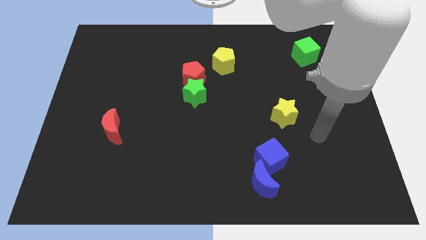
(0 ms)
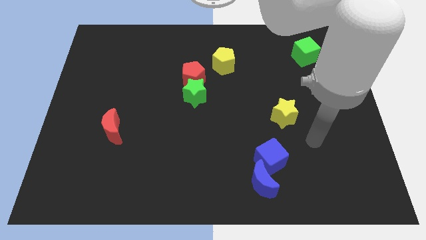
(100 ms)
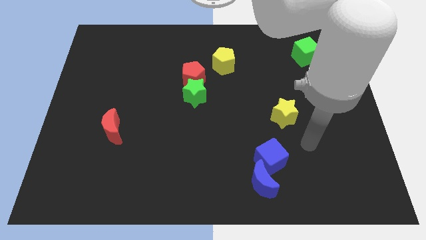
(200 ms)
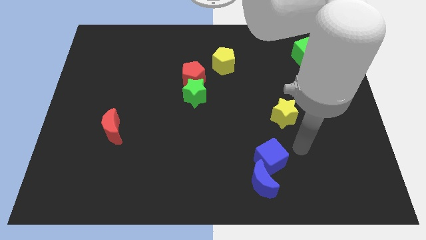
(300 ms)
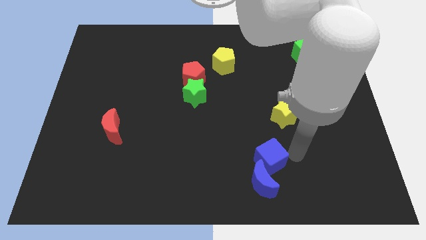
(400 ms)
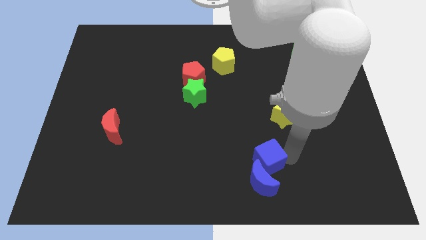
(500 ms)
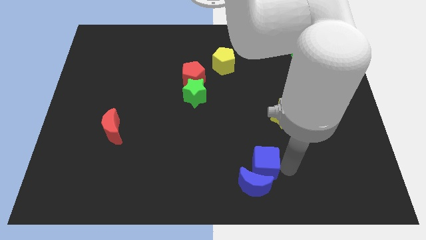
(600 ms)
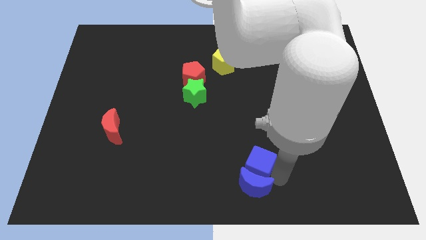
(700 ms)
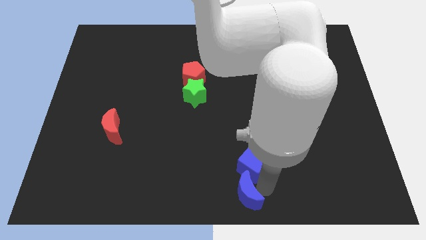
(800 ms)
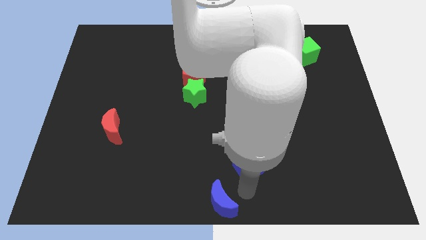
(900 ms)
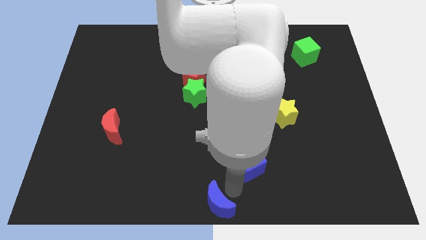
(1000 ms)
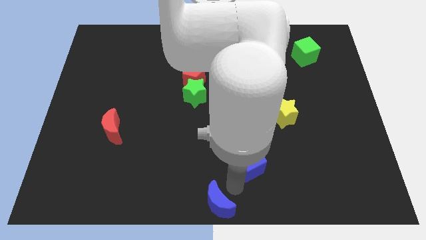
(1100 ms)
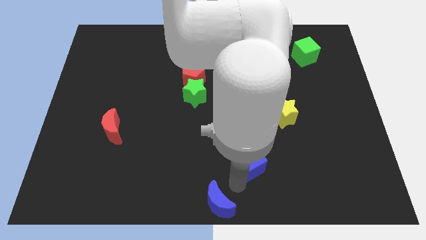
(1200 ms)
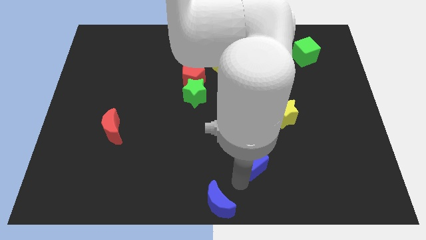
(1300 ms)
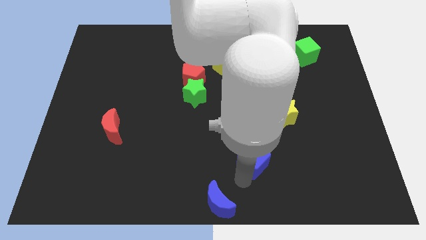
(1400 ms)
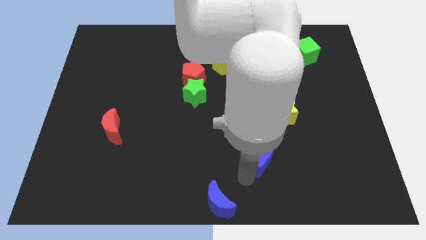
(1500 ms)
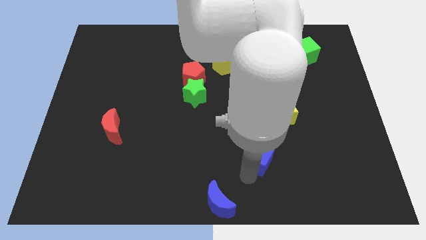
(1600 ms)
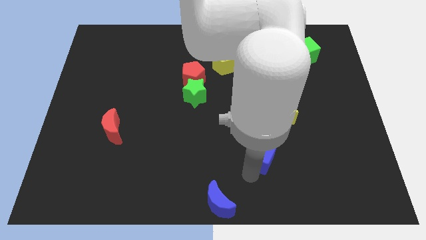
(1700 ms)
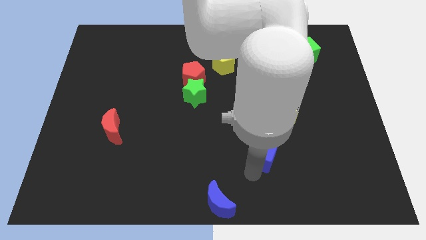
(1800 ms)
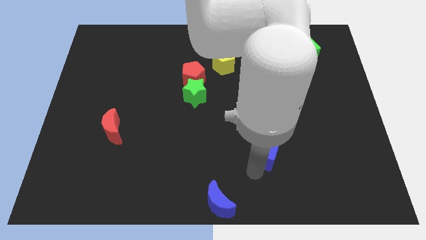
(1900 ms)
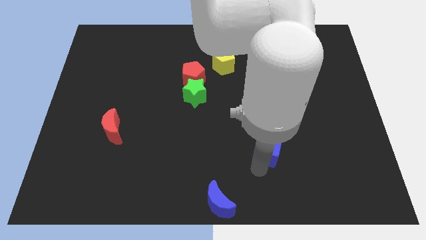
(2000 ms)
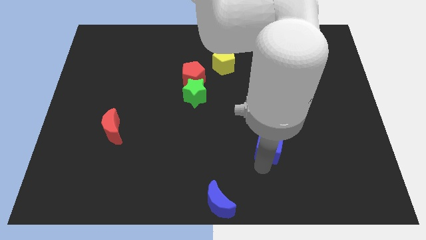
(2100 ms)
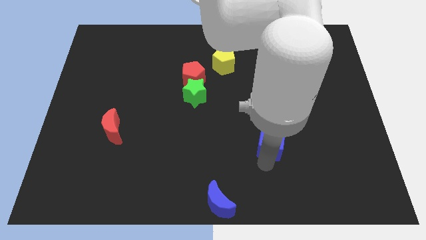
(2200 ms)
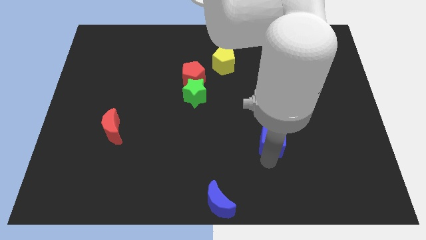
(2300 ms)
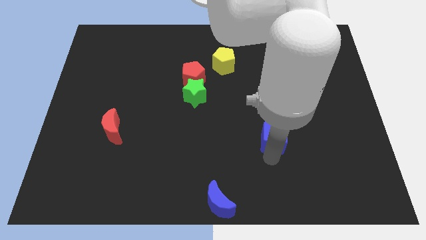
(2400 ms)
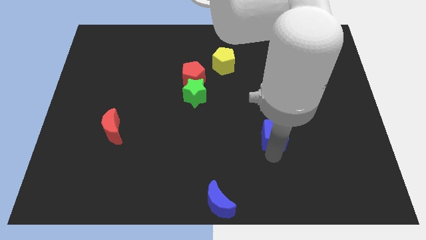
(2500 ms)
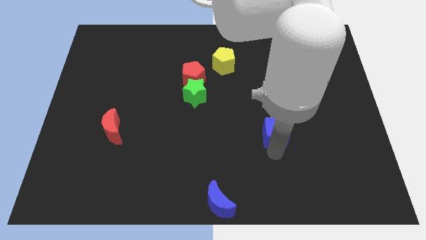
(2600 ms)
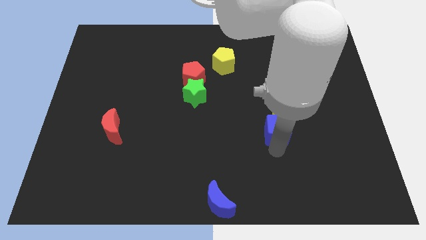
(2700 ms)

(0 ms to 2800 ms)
push the blue cube up somewhat

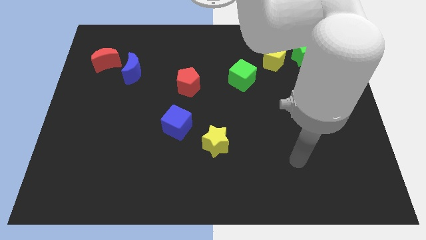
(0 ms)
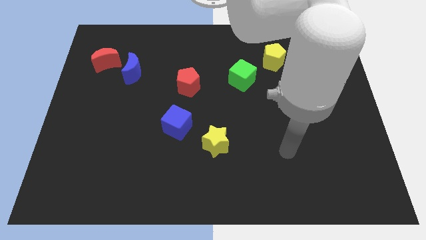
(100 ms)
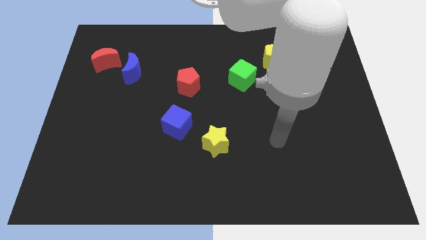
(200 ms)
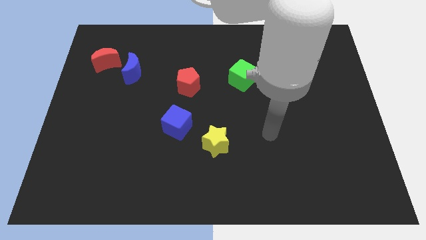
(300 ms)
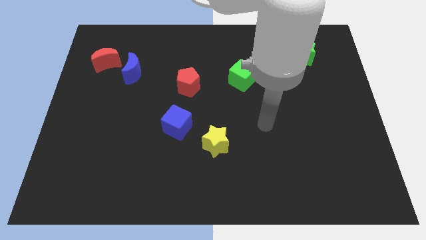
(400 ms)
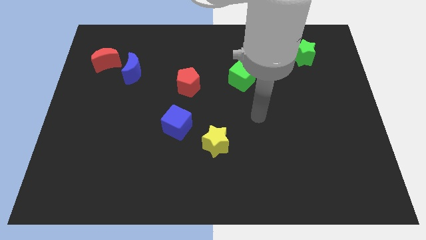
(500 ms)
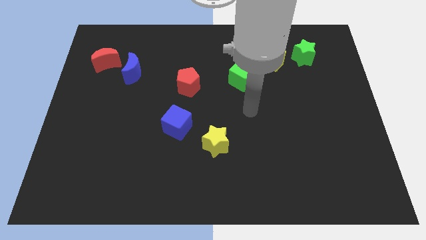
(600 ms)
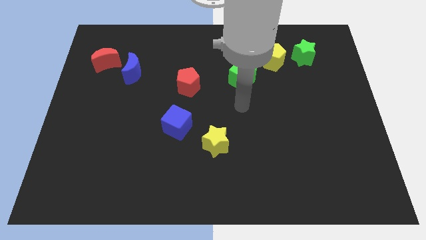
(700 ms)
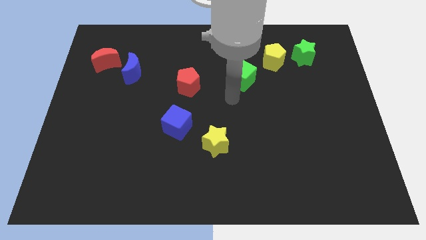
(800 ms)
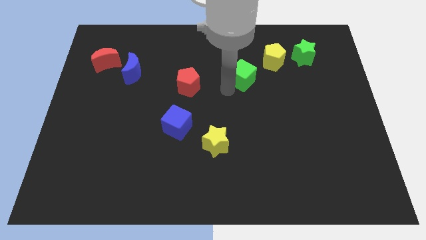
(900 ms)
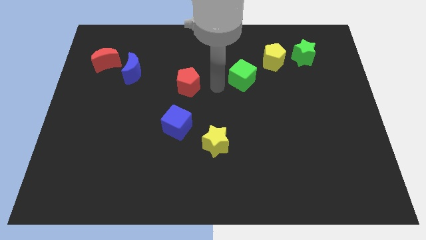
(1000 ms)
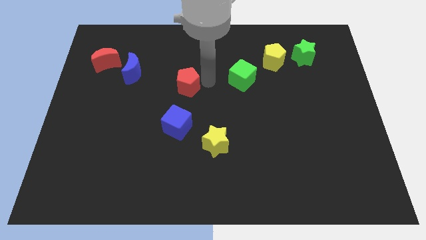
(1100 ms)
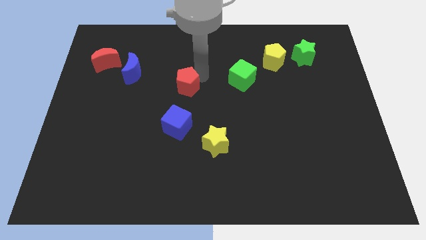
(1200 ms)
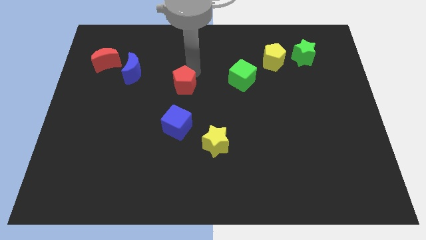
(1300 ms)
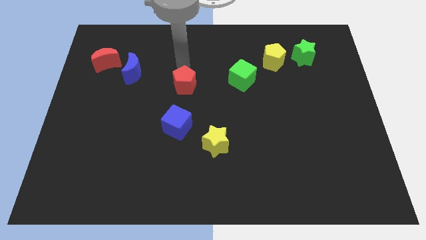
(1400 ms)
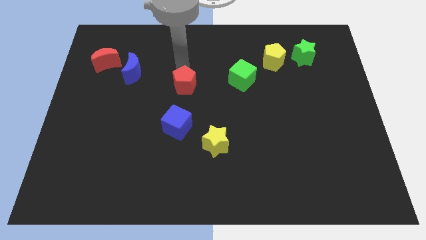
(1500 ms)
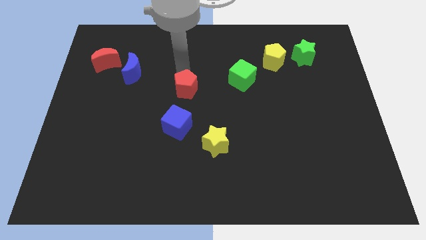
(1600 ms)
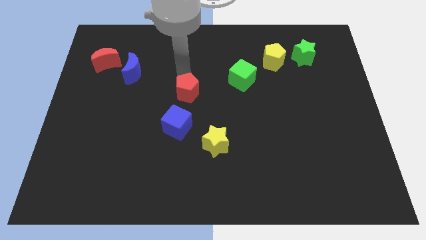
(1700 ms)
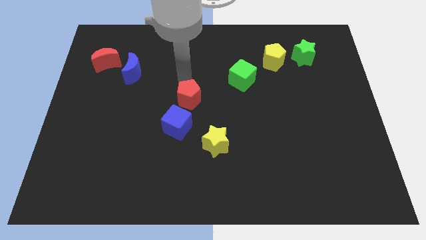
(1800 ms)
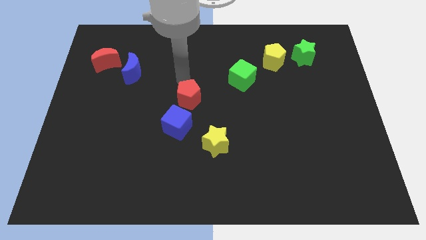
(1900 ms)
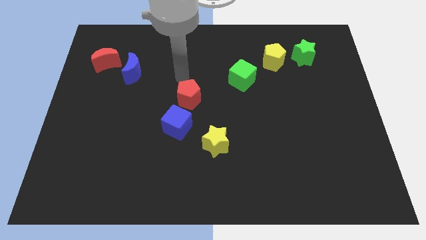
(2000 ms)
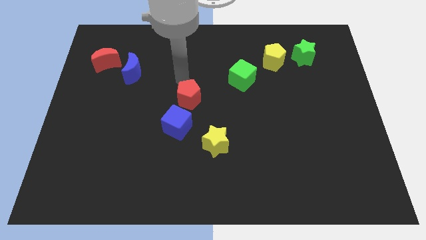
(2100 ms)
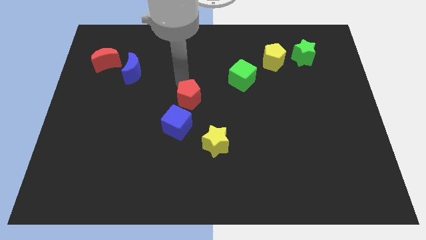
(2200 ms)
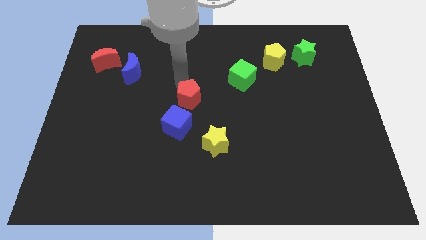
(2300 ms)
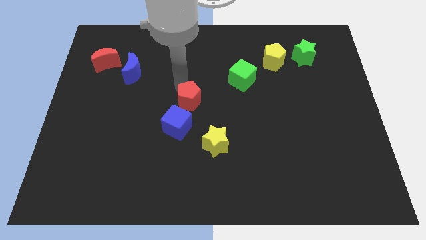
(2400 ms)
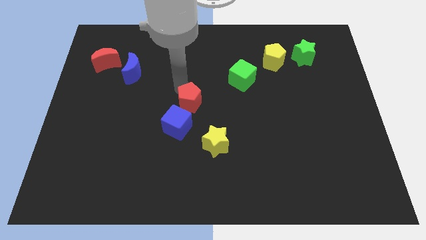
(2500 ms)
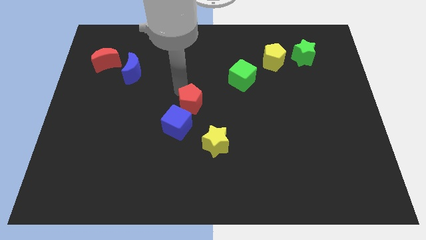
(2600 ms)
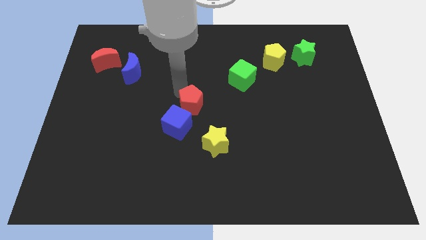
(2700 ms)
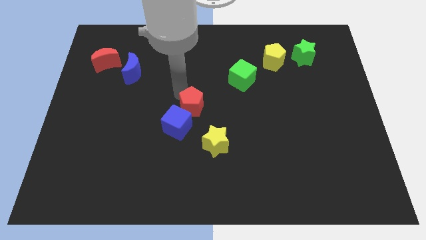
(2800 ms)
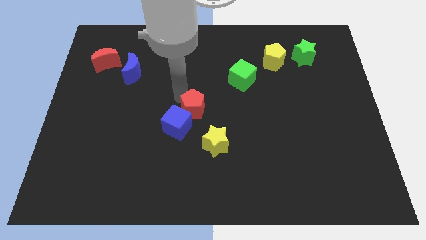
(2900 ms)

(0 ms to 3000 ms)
push the red pentagon down a little

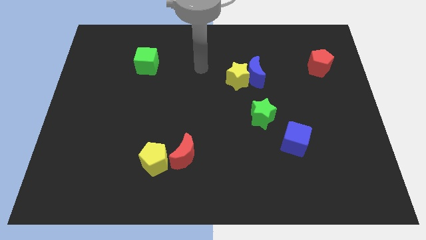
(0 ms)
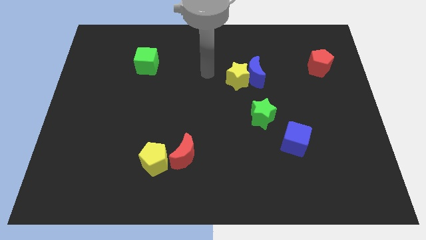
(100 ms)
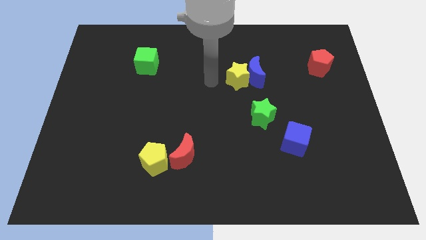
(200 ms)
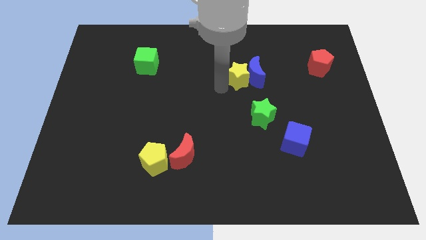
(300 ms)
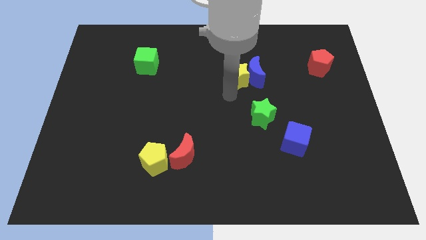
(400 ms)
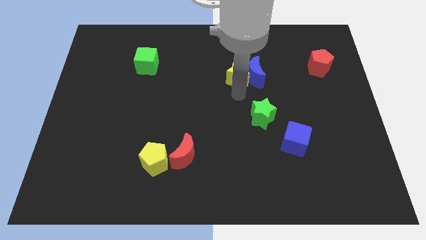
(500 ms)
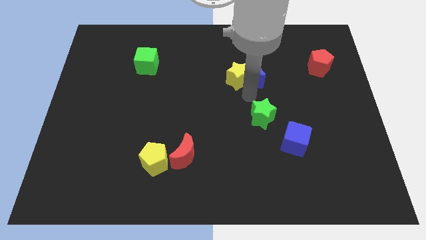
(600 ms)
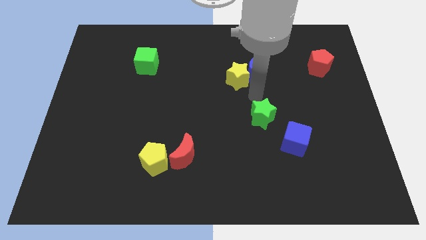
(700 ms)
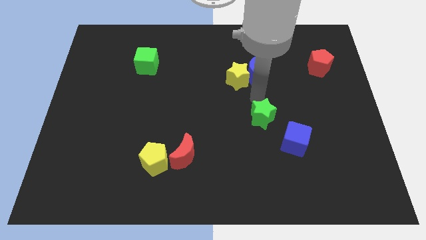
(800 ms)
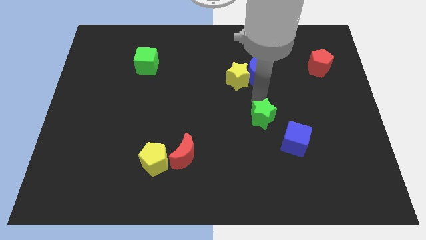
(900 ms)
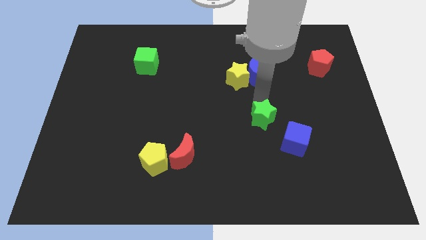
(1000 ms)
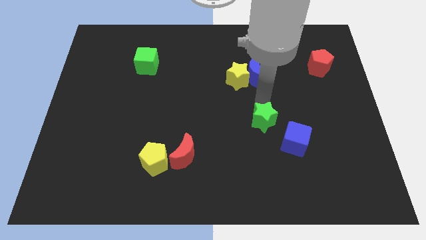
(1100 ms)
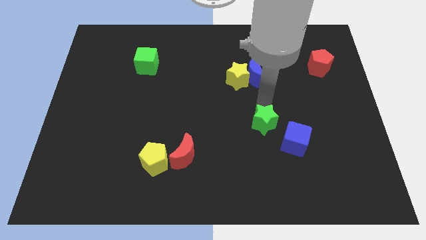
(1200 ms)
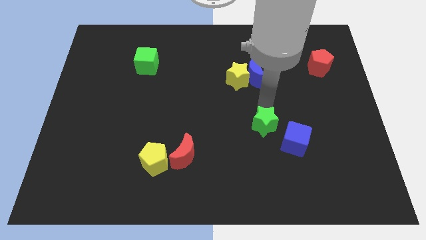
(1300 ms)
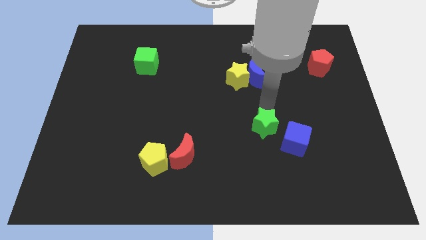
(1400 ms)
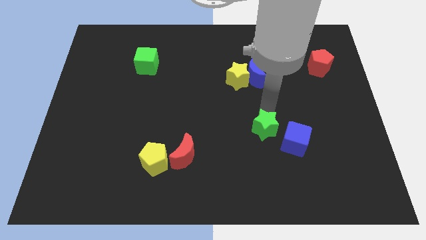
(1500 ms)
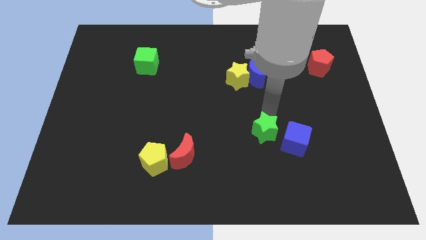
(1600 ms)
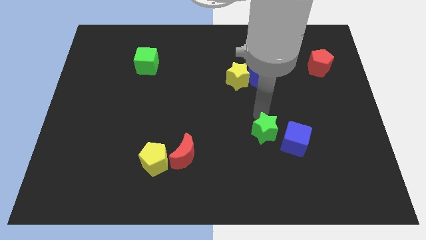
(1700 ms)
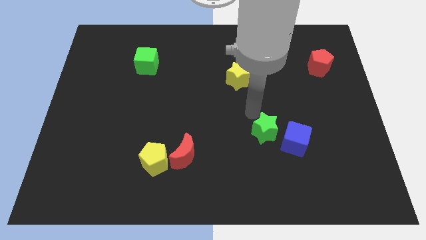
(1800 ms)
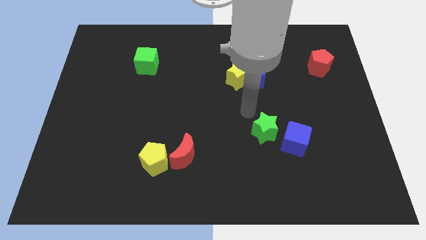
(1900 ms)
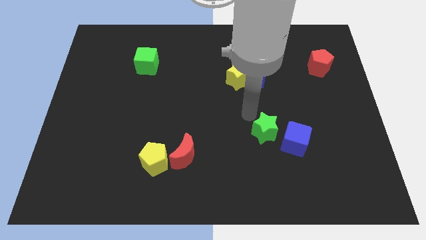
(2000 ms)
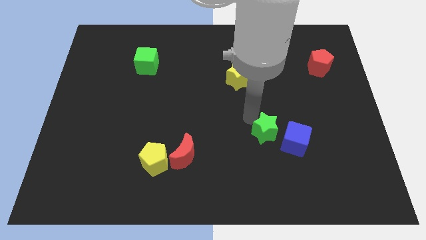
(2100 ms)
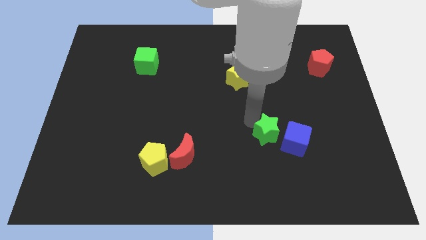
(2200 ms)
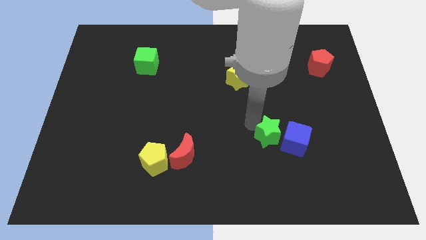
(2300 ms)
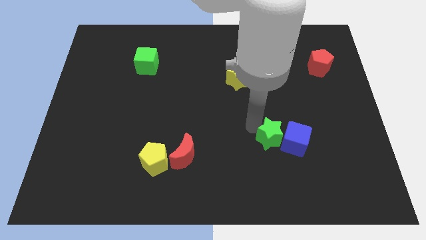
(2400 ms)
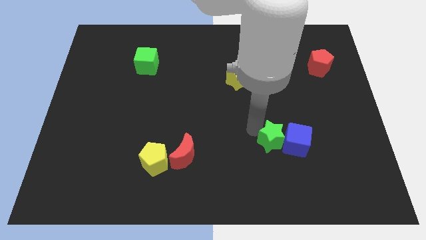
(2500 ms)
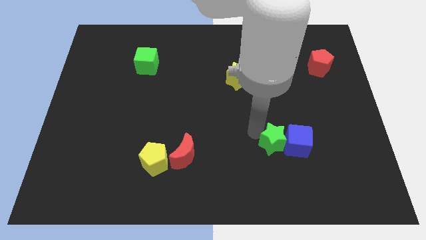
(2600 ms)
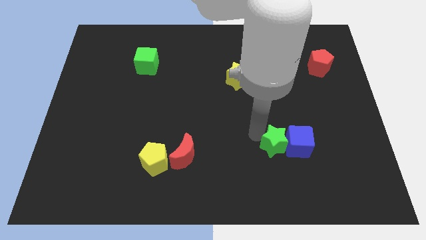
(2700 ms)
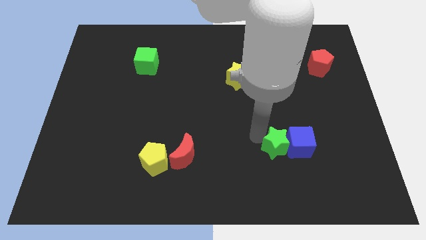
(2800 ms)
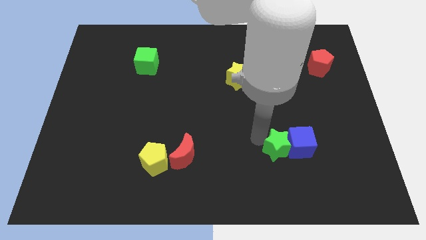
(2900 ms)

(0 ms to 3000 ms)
move the green star a little bit diagonally down and to the right
